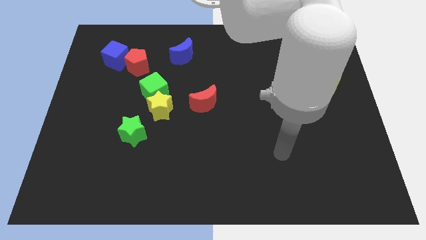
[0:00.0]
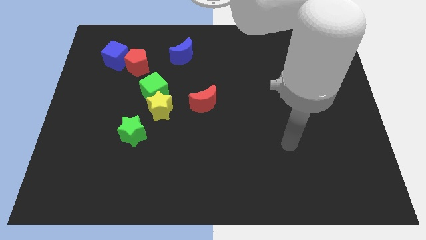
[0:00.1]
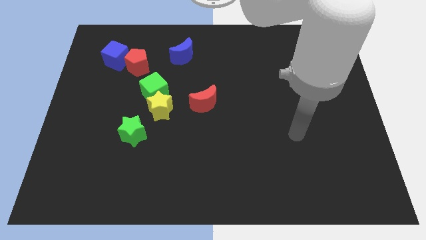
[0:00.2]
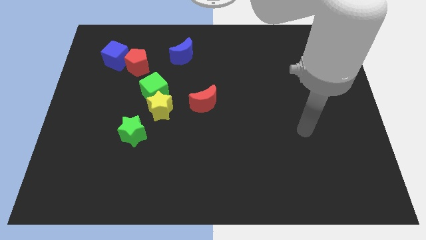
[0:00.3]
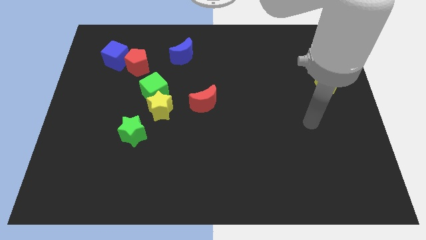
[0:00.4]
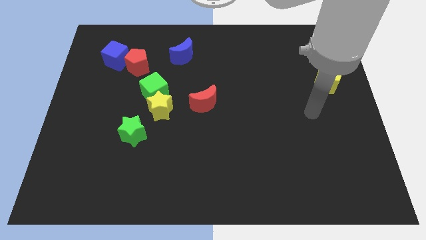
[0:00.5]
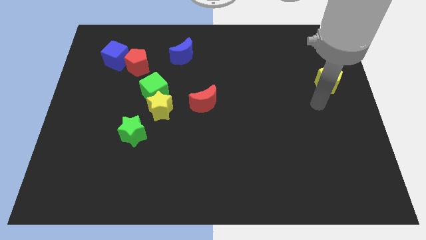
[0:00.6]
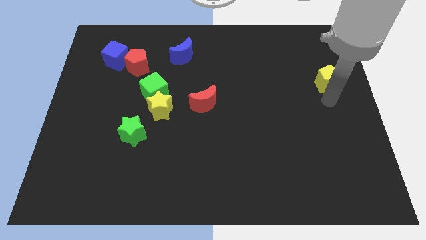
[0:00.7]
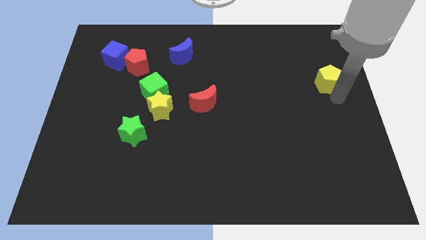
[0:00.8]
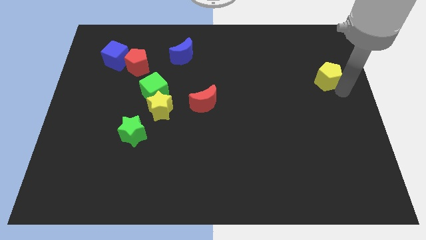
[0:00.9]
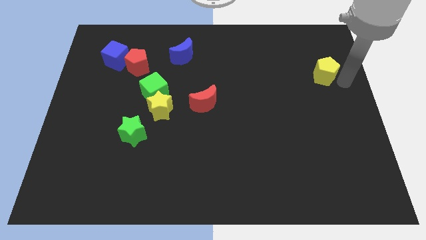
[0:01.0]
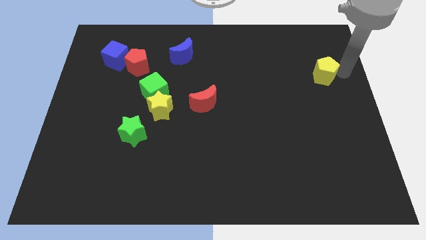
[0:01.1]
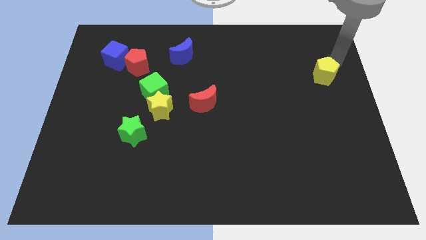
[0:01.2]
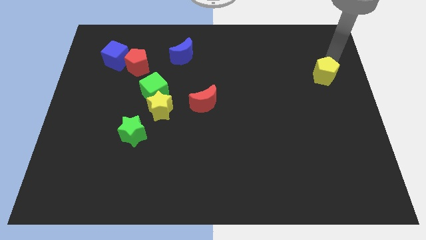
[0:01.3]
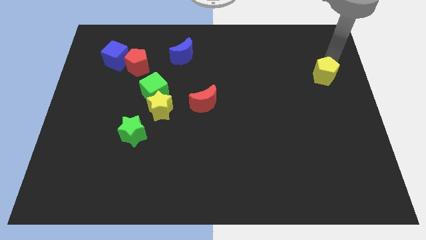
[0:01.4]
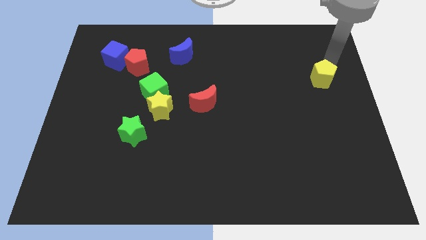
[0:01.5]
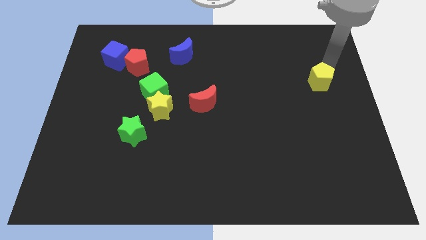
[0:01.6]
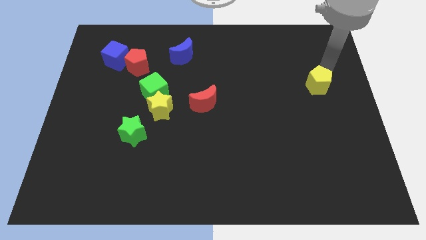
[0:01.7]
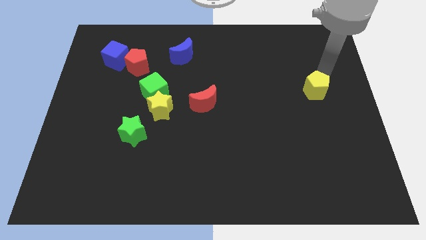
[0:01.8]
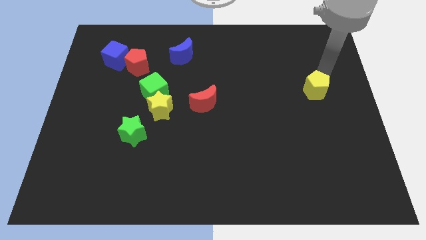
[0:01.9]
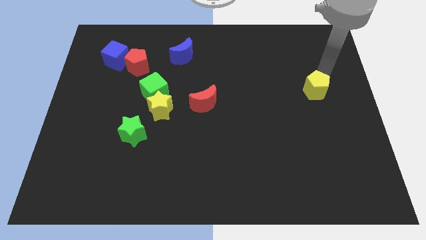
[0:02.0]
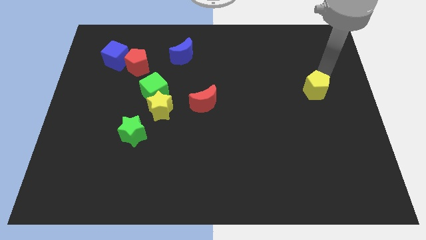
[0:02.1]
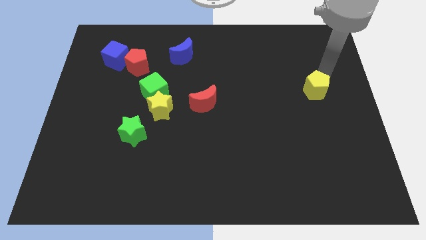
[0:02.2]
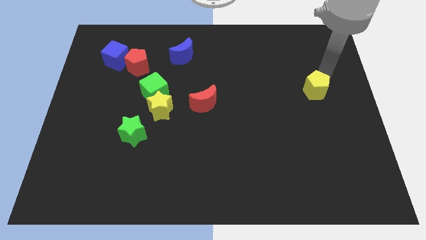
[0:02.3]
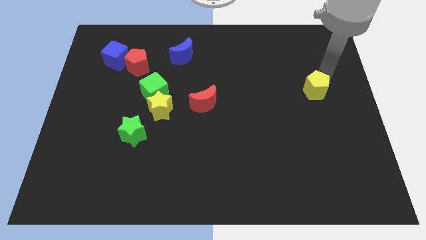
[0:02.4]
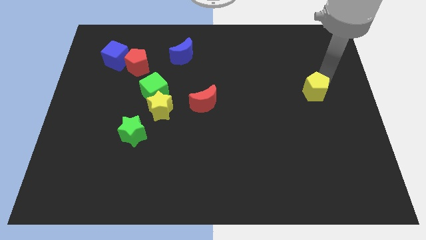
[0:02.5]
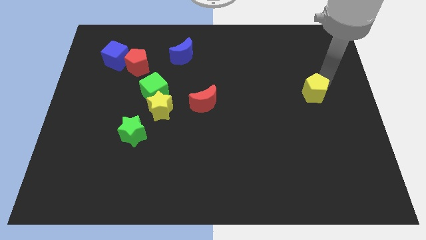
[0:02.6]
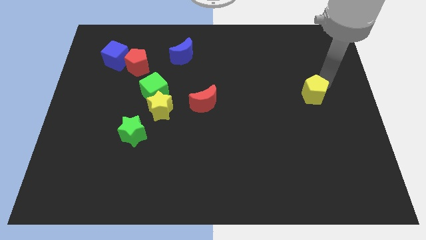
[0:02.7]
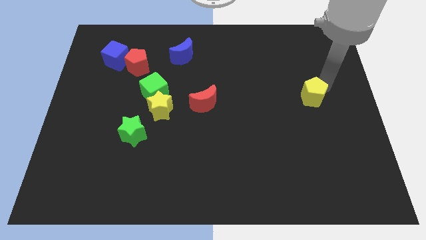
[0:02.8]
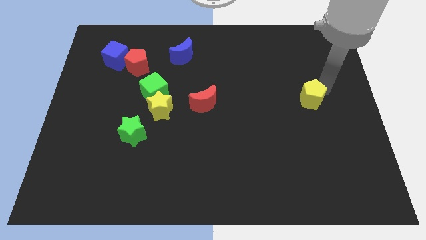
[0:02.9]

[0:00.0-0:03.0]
push the yellow pentagon down and then to the left a little

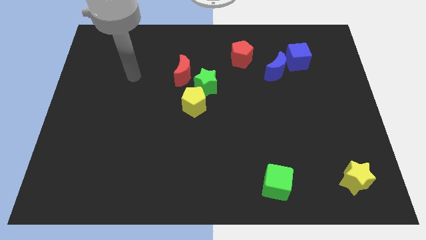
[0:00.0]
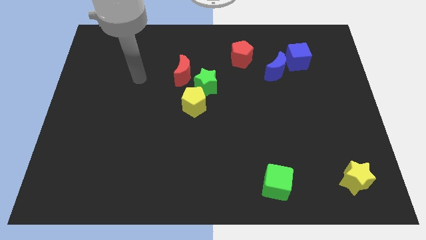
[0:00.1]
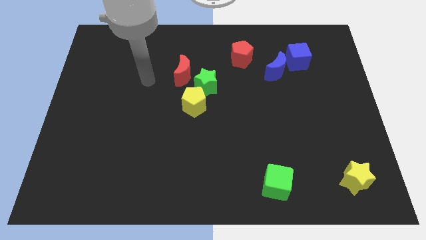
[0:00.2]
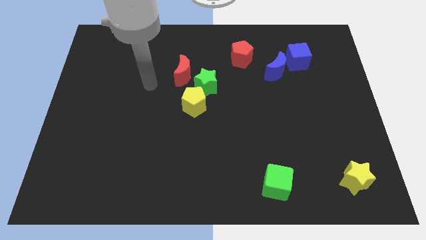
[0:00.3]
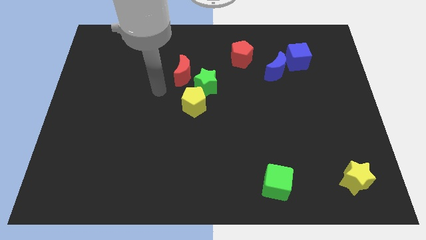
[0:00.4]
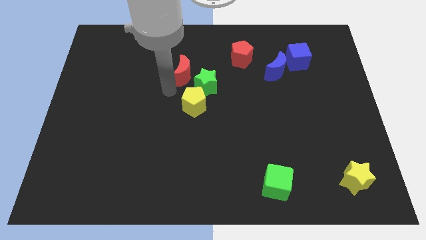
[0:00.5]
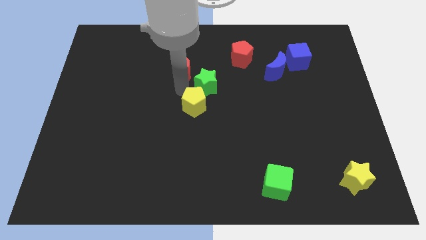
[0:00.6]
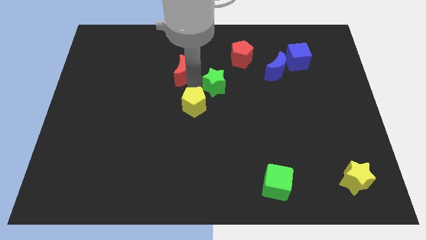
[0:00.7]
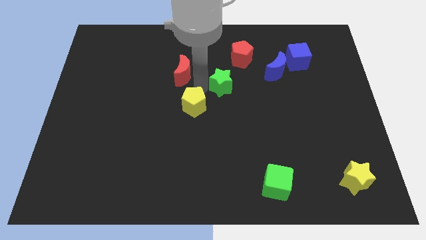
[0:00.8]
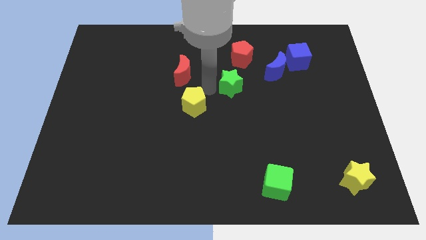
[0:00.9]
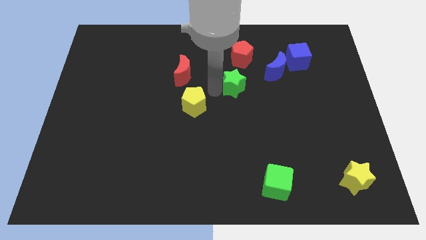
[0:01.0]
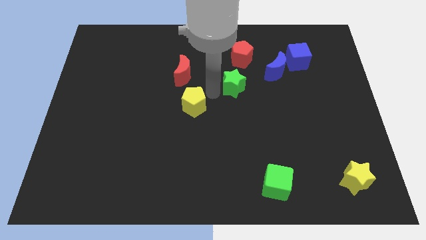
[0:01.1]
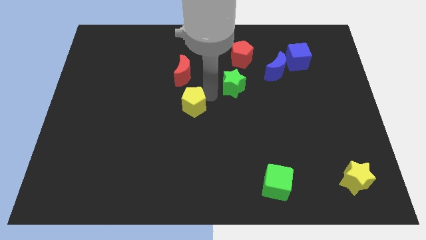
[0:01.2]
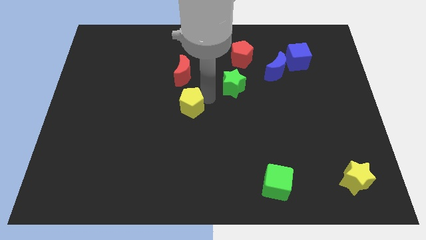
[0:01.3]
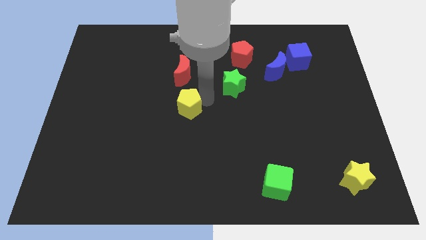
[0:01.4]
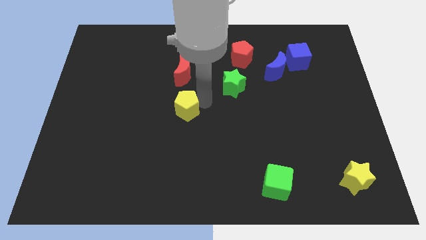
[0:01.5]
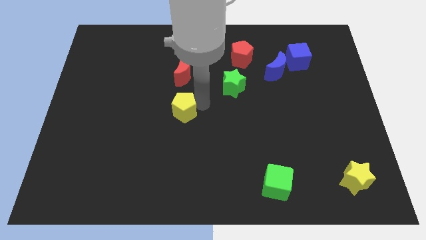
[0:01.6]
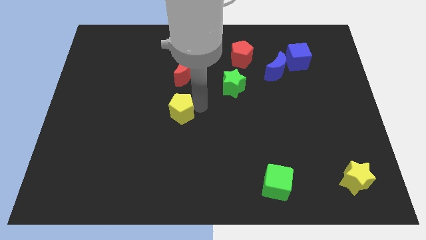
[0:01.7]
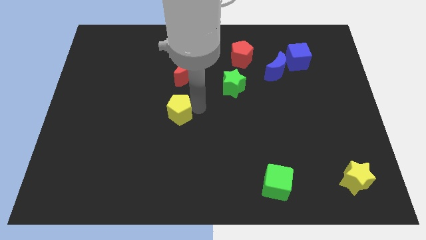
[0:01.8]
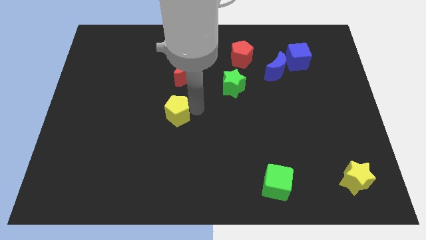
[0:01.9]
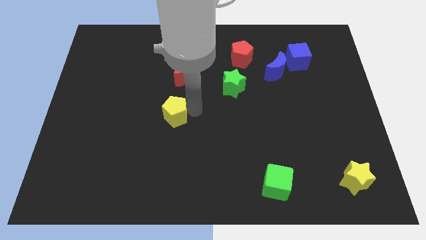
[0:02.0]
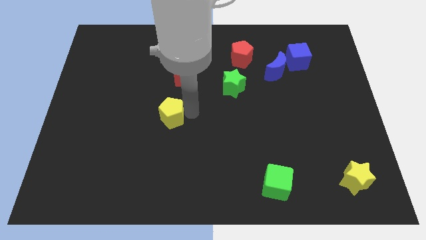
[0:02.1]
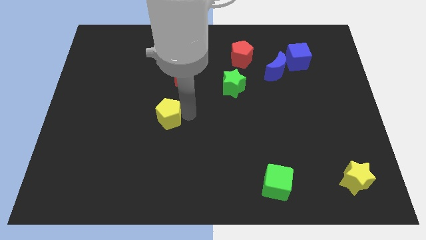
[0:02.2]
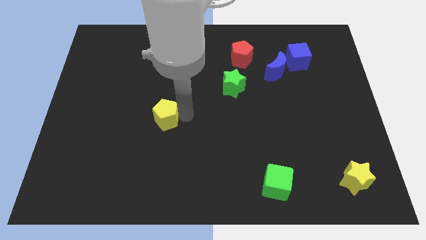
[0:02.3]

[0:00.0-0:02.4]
push the yellow pentagon downwards and left diagonally a little

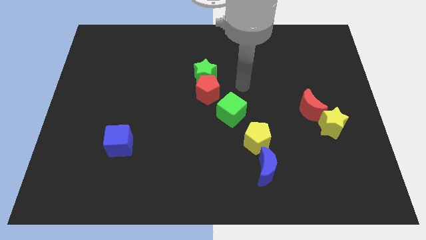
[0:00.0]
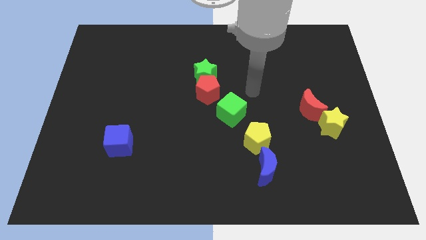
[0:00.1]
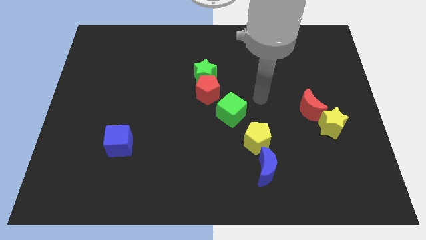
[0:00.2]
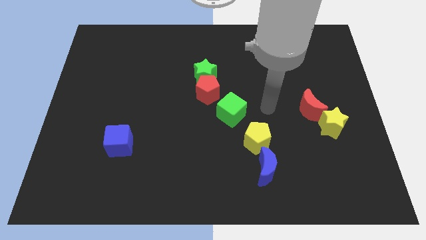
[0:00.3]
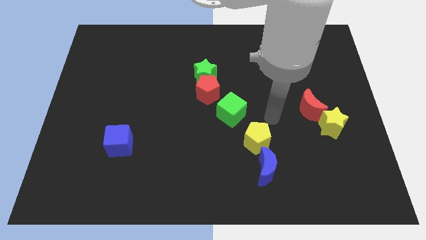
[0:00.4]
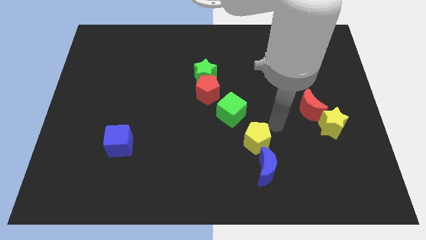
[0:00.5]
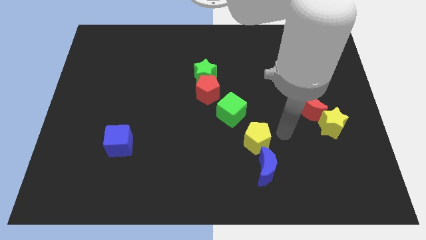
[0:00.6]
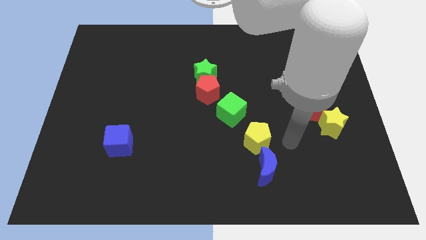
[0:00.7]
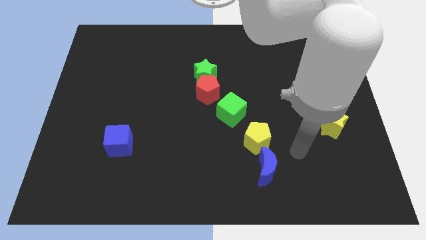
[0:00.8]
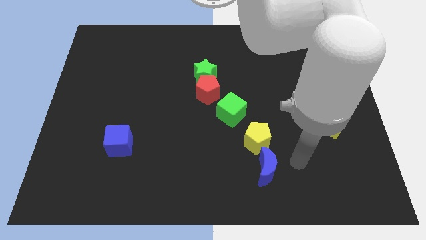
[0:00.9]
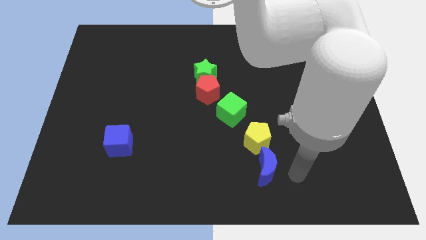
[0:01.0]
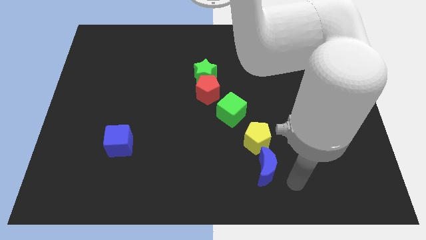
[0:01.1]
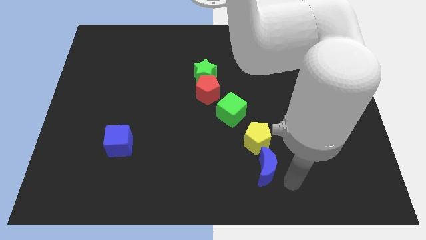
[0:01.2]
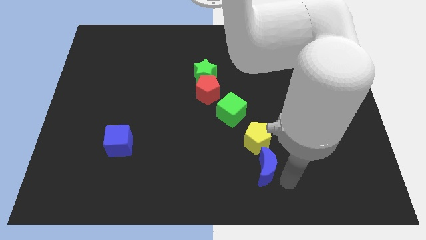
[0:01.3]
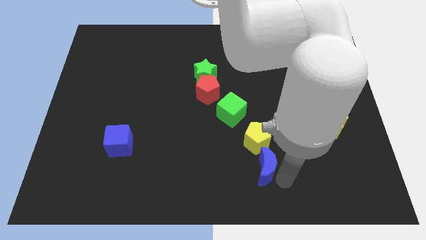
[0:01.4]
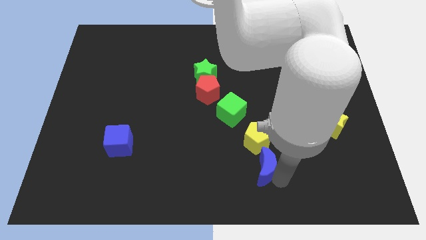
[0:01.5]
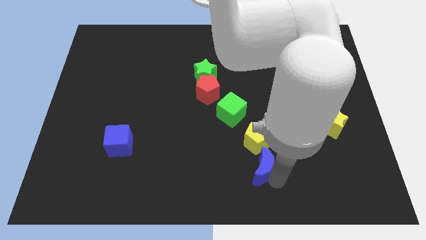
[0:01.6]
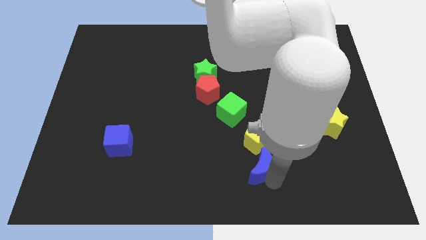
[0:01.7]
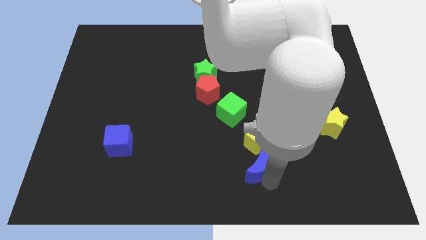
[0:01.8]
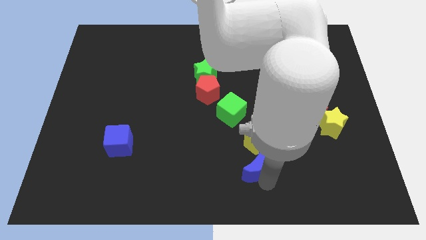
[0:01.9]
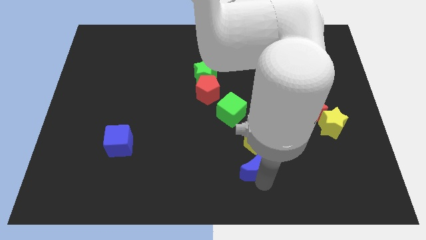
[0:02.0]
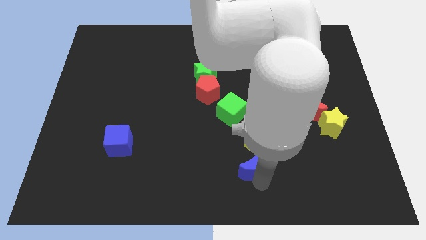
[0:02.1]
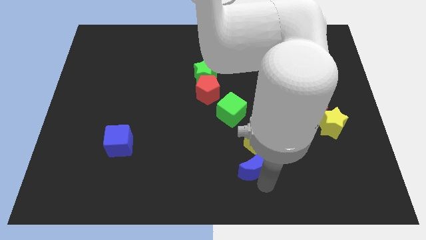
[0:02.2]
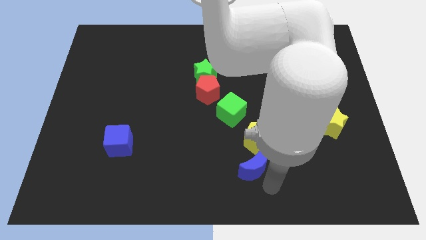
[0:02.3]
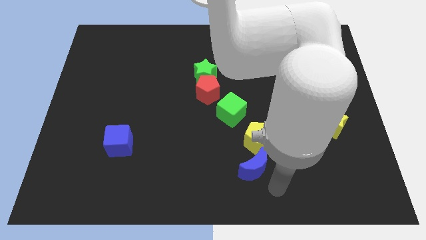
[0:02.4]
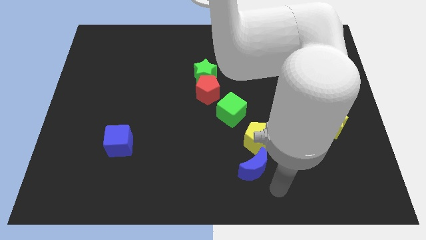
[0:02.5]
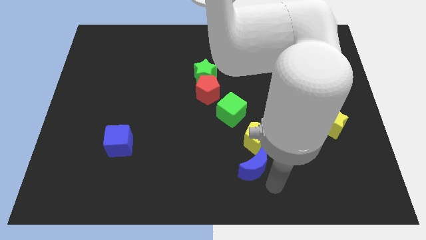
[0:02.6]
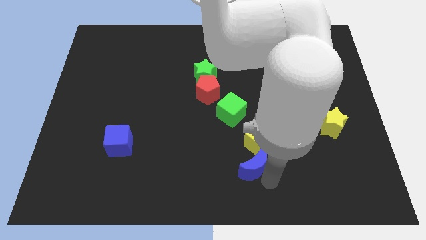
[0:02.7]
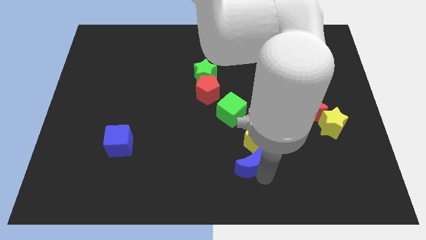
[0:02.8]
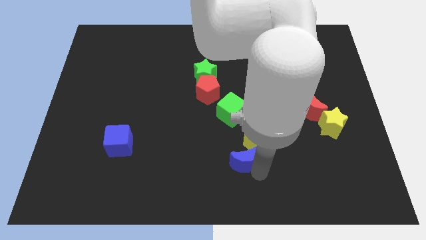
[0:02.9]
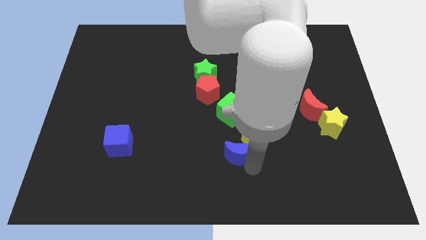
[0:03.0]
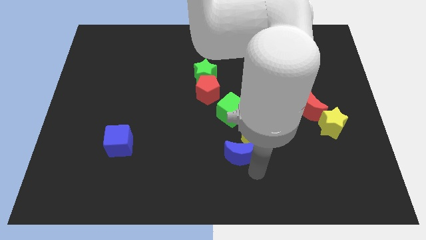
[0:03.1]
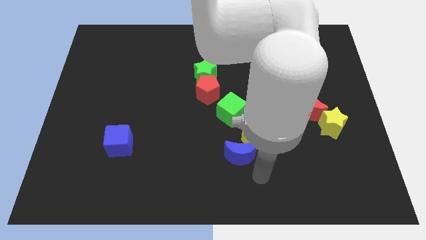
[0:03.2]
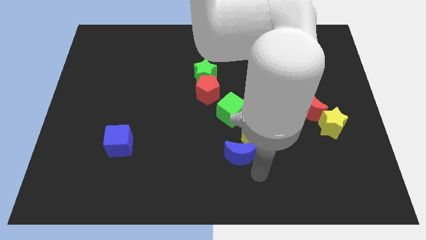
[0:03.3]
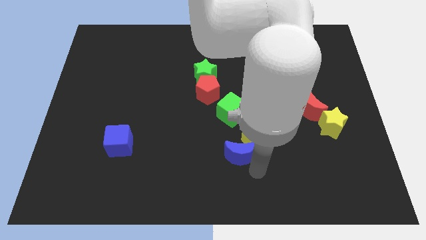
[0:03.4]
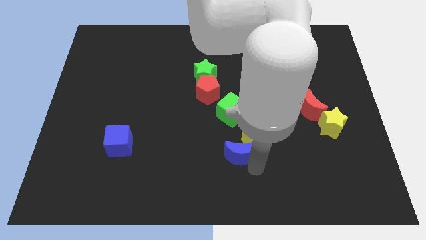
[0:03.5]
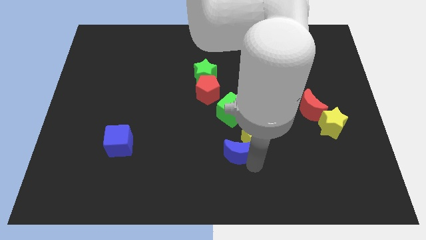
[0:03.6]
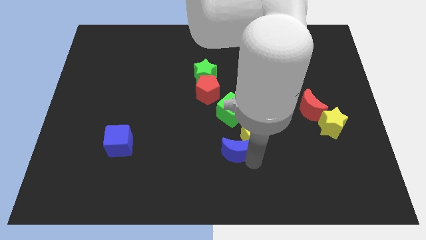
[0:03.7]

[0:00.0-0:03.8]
move the blue moon a little upwards and left diagonally
